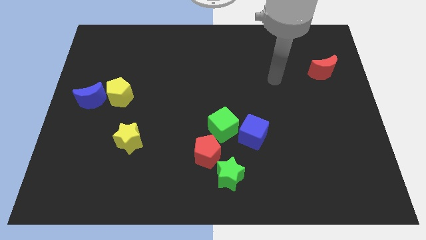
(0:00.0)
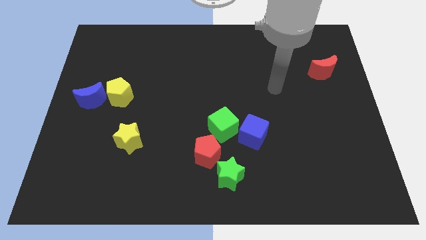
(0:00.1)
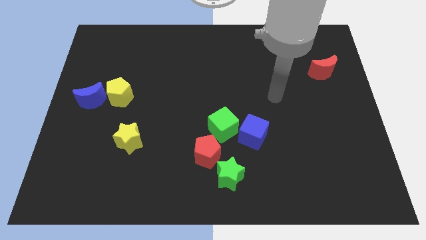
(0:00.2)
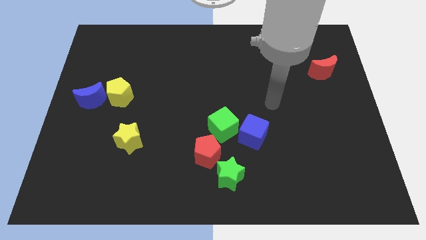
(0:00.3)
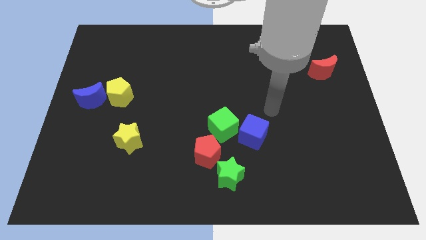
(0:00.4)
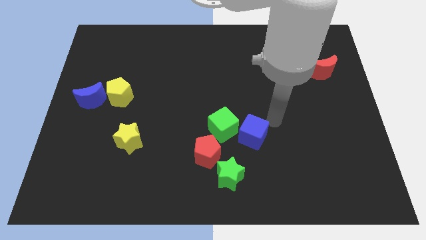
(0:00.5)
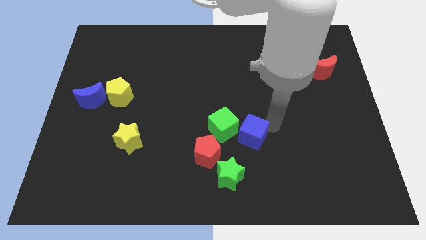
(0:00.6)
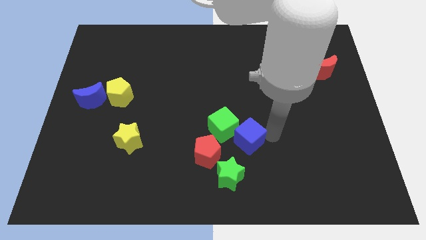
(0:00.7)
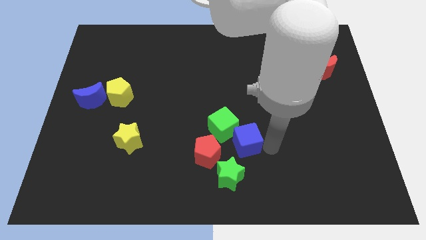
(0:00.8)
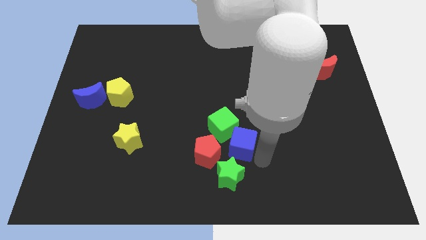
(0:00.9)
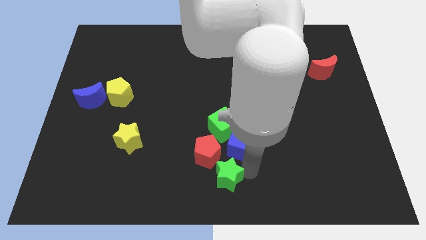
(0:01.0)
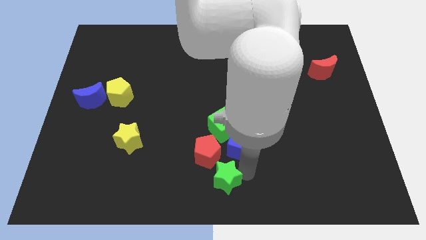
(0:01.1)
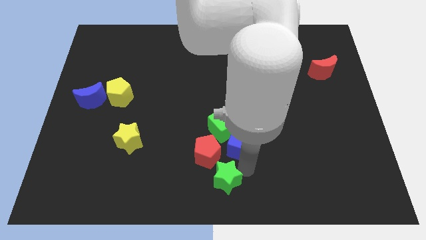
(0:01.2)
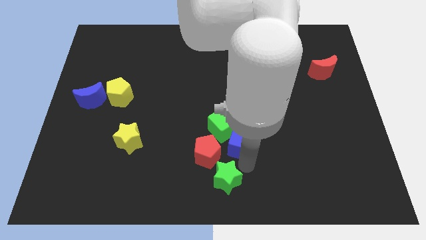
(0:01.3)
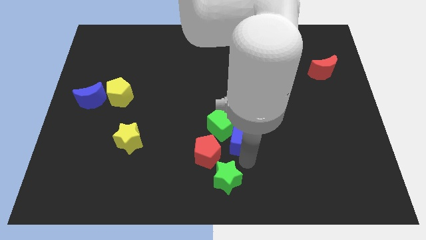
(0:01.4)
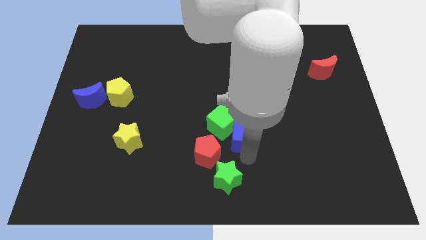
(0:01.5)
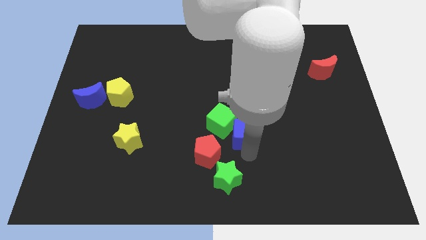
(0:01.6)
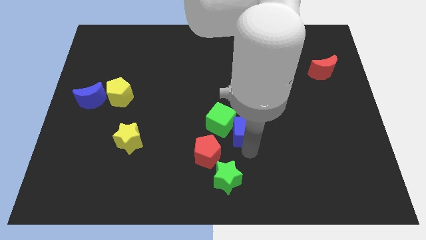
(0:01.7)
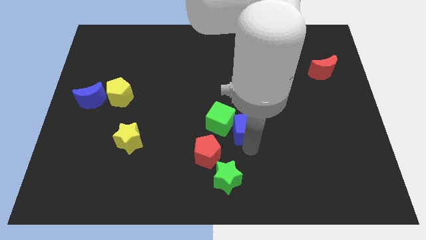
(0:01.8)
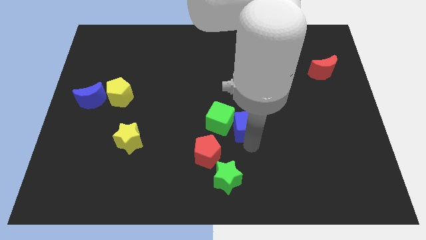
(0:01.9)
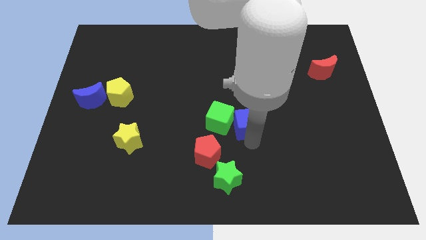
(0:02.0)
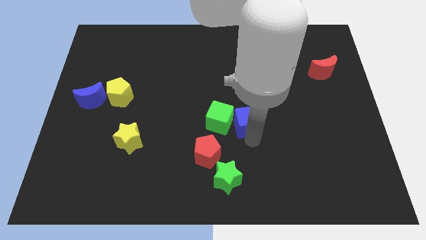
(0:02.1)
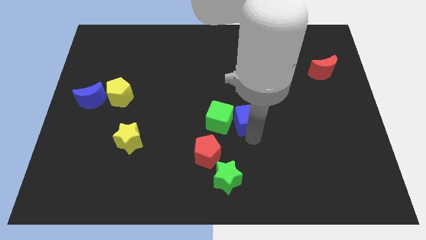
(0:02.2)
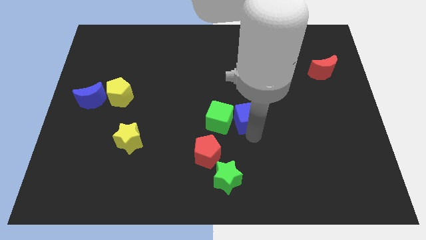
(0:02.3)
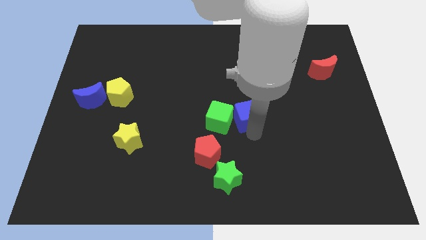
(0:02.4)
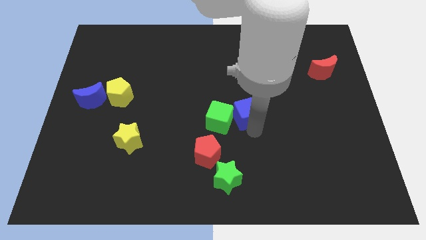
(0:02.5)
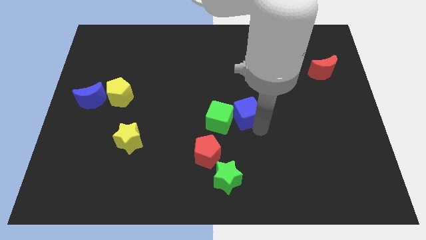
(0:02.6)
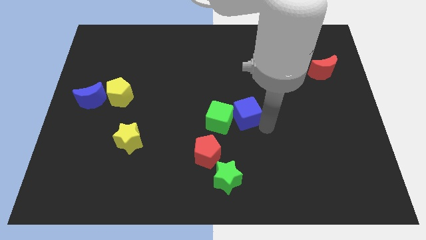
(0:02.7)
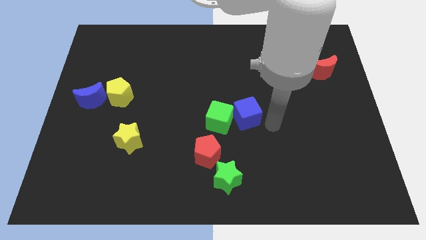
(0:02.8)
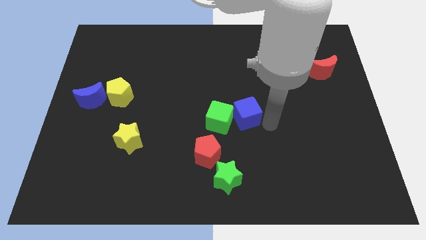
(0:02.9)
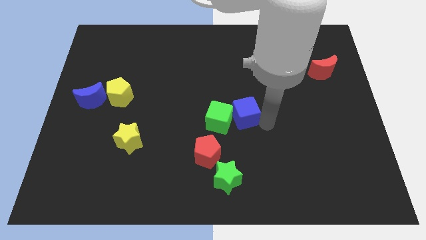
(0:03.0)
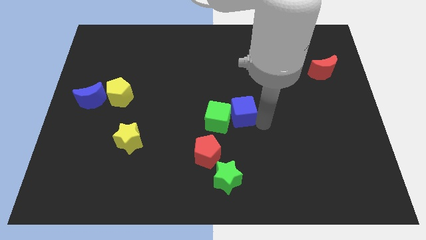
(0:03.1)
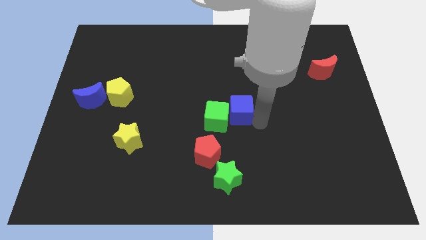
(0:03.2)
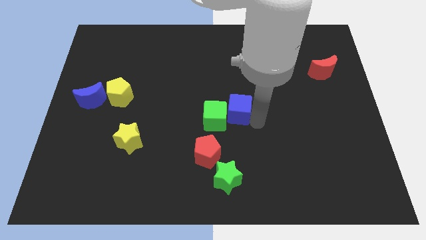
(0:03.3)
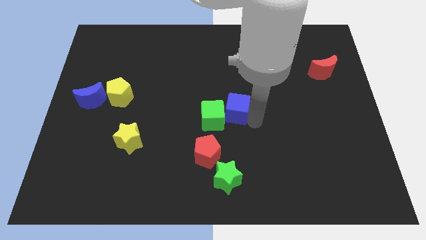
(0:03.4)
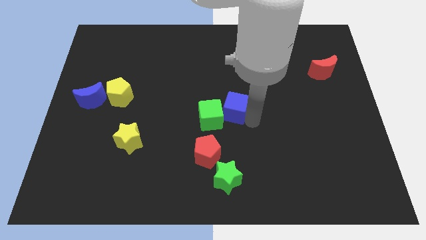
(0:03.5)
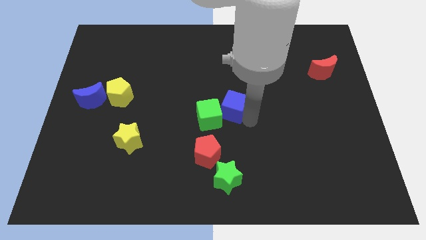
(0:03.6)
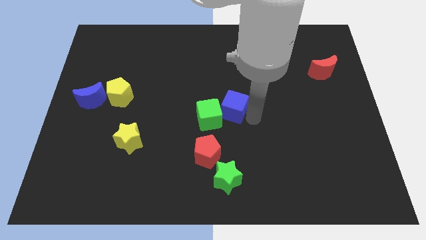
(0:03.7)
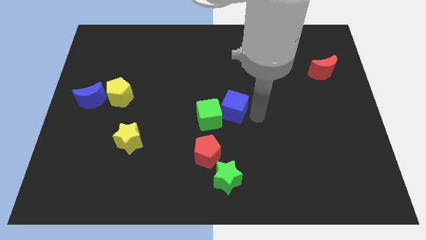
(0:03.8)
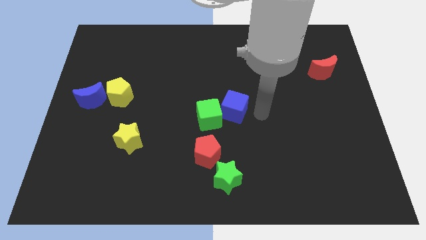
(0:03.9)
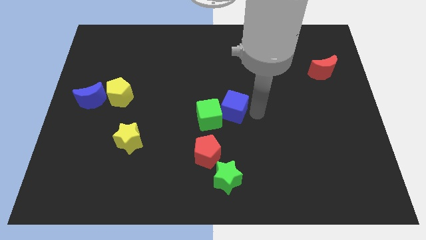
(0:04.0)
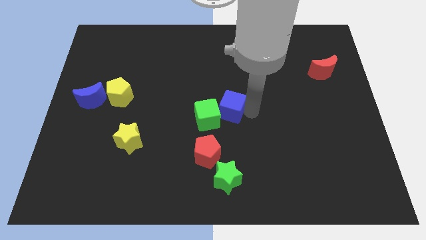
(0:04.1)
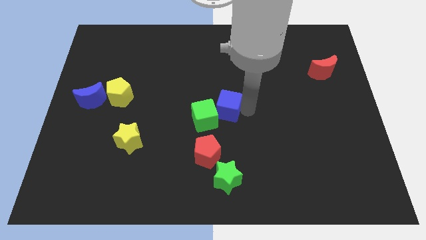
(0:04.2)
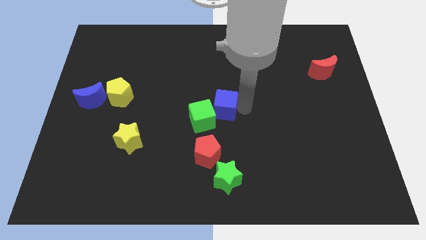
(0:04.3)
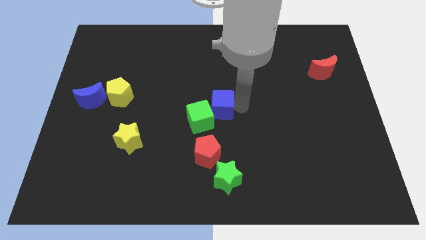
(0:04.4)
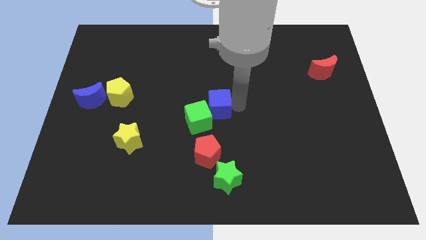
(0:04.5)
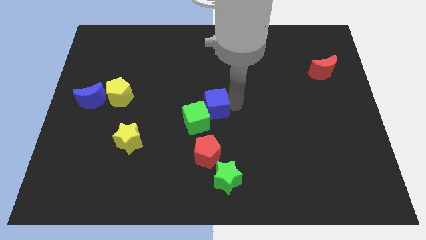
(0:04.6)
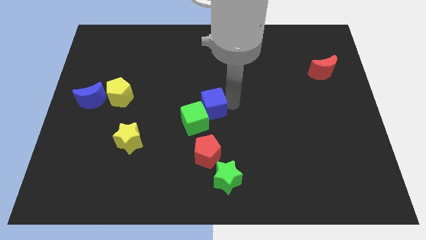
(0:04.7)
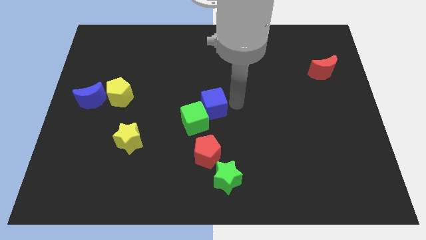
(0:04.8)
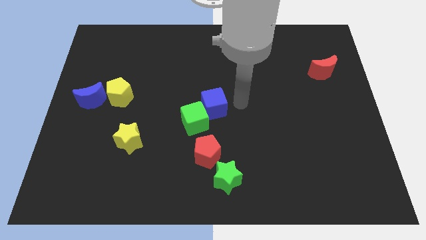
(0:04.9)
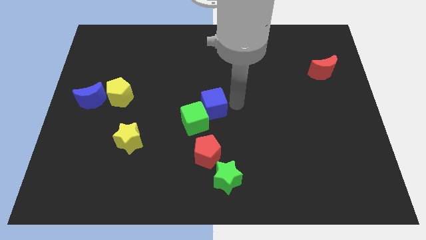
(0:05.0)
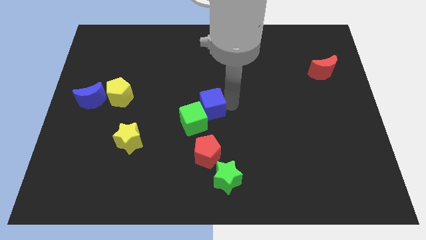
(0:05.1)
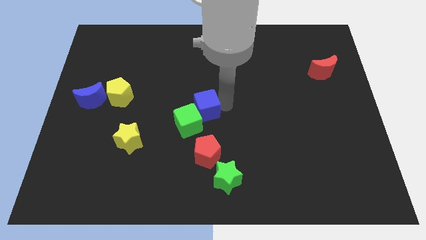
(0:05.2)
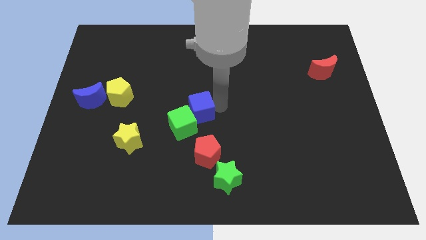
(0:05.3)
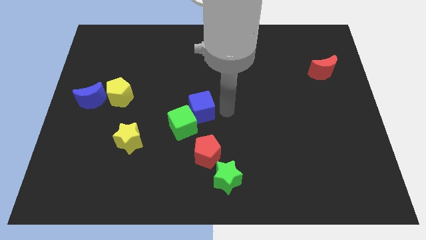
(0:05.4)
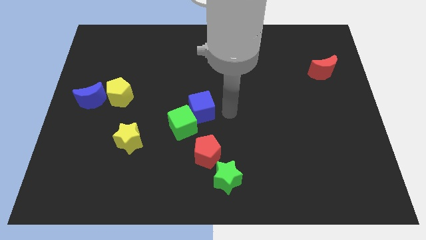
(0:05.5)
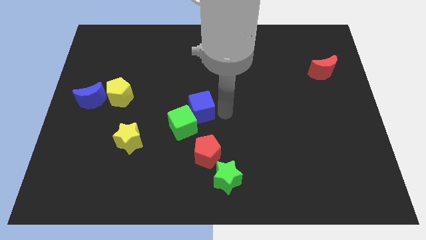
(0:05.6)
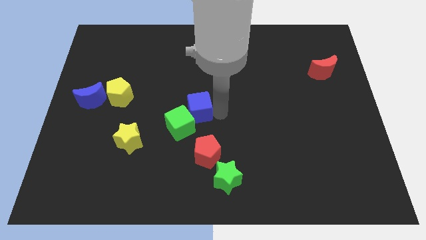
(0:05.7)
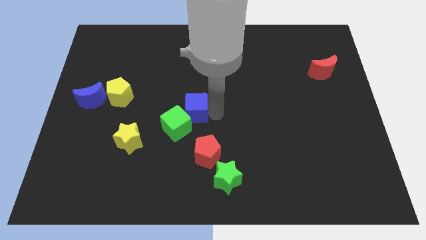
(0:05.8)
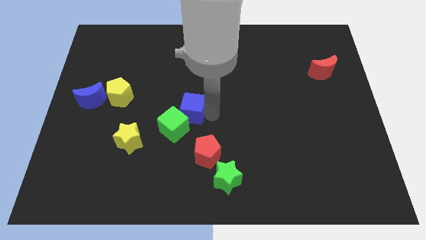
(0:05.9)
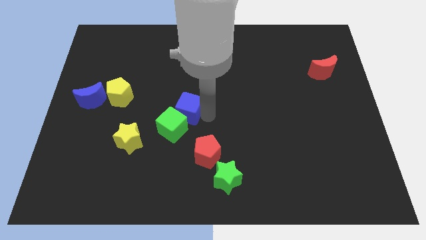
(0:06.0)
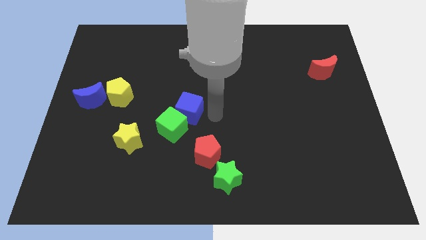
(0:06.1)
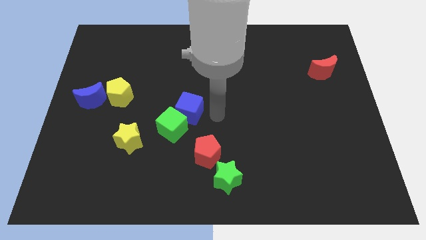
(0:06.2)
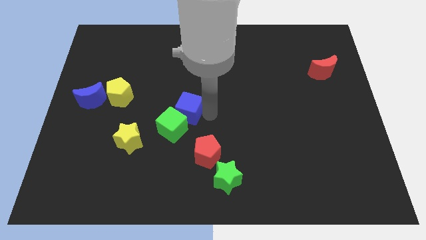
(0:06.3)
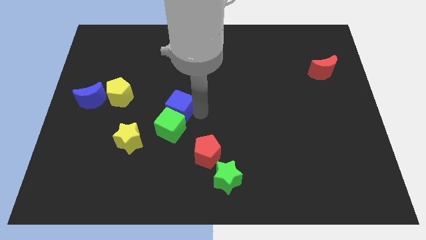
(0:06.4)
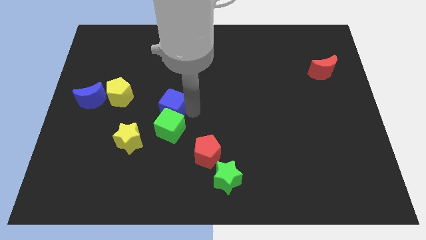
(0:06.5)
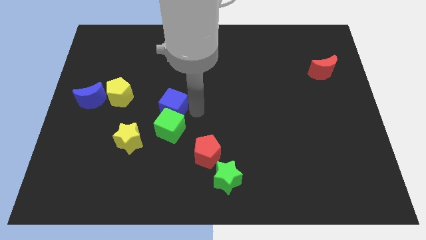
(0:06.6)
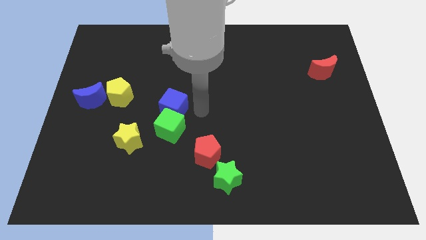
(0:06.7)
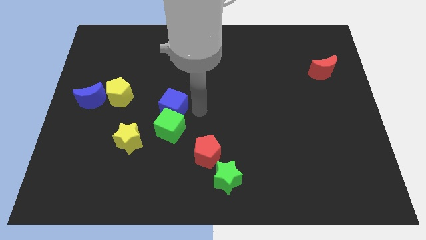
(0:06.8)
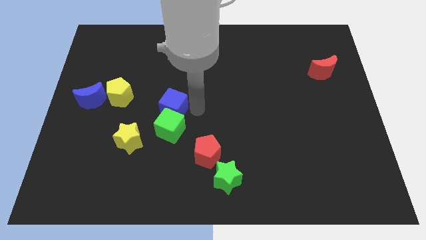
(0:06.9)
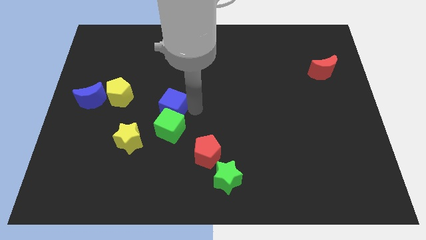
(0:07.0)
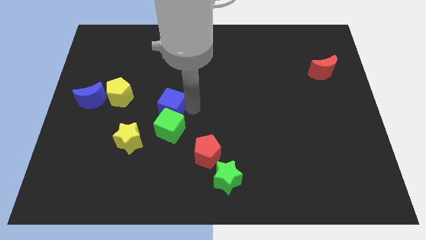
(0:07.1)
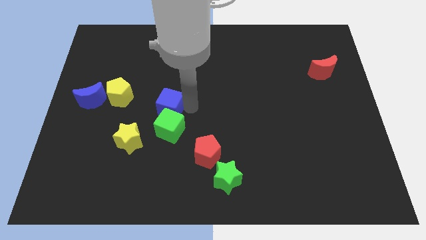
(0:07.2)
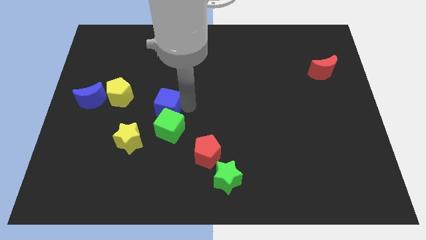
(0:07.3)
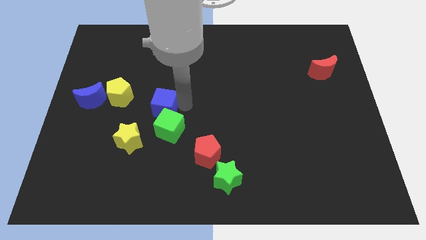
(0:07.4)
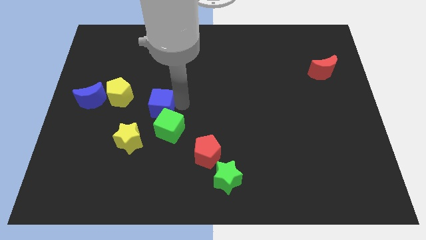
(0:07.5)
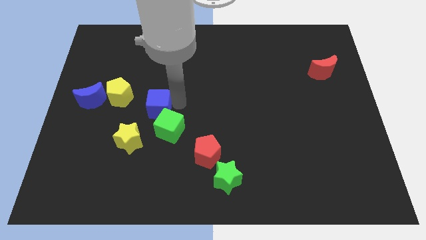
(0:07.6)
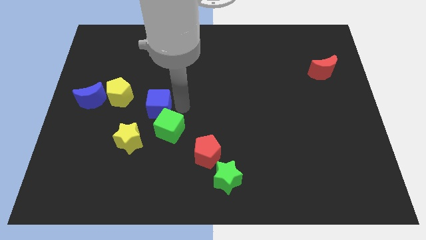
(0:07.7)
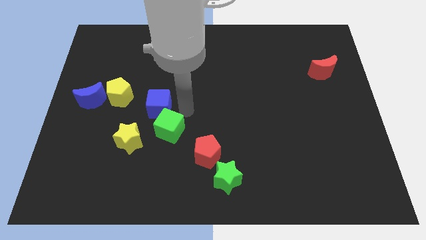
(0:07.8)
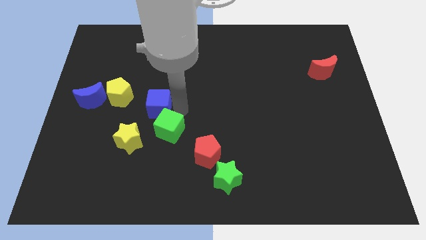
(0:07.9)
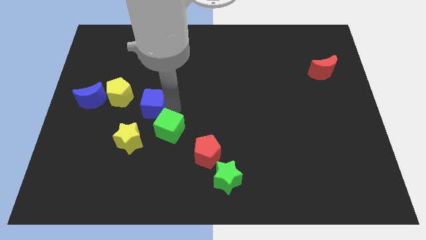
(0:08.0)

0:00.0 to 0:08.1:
slide the blue cube above the yellow star
